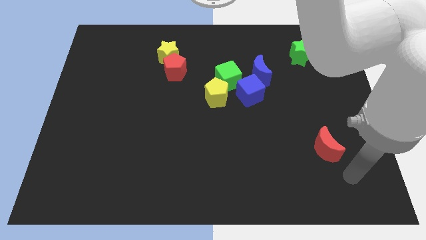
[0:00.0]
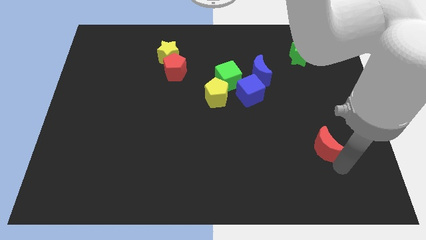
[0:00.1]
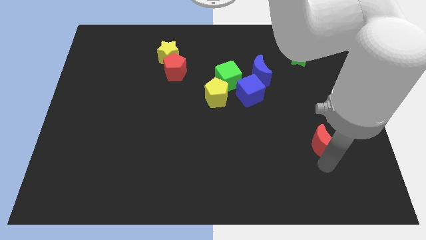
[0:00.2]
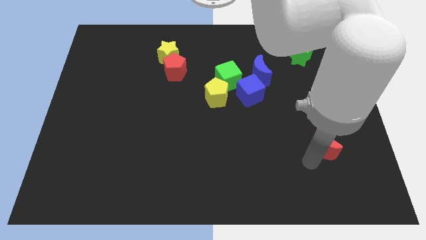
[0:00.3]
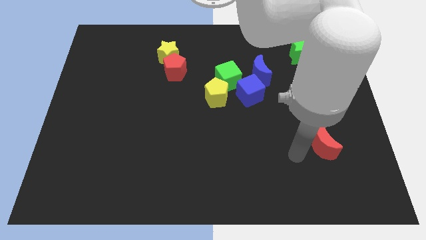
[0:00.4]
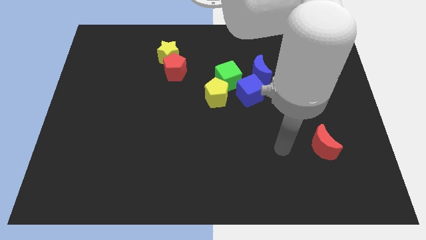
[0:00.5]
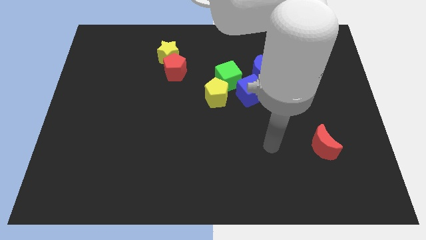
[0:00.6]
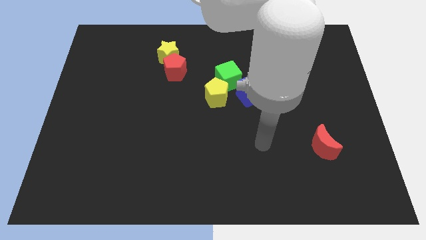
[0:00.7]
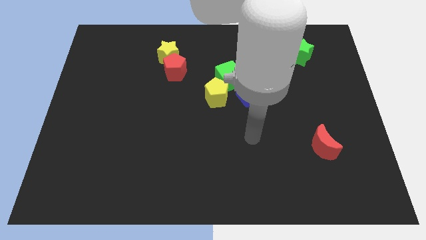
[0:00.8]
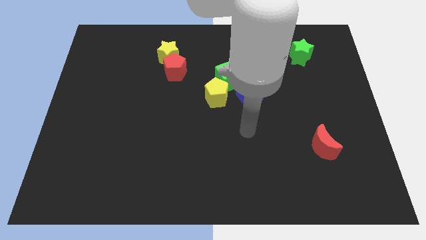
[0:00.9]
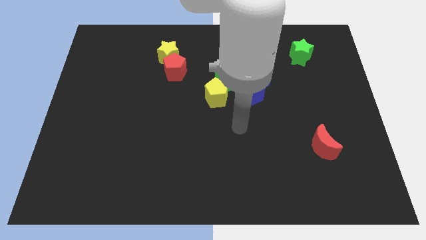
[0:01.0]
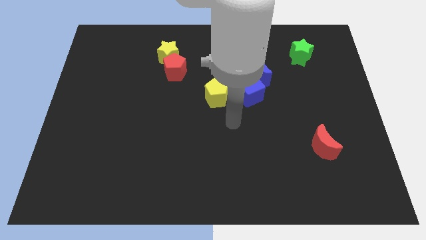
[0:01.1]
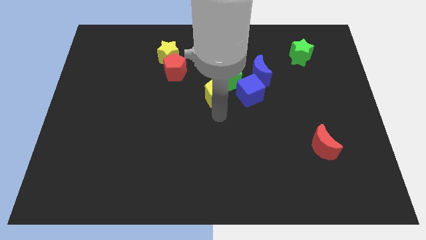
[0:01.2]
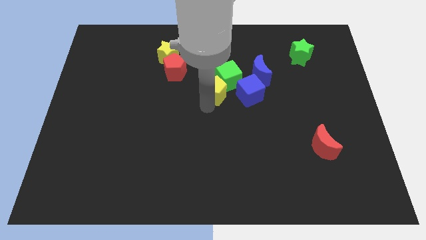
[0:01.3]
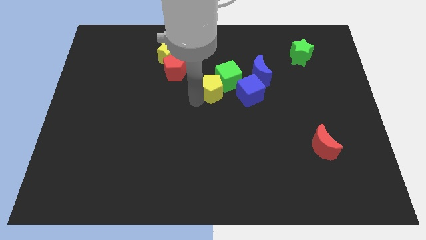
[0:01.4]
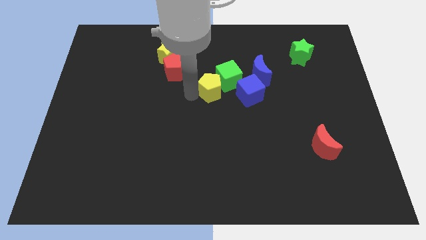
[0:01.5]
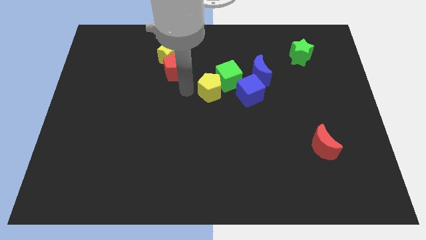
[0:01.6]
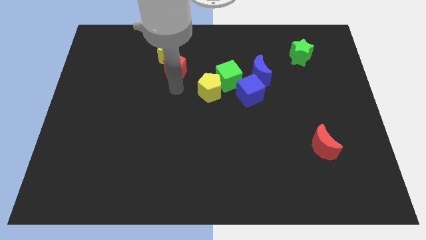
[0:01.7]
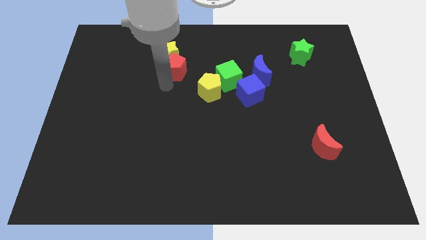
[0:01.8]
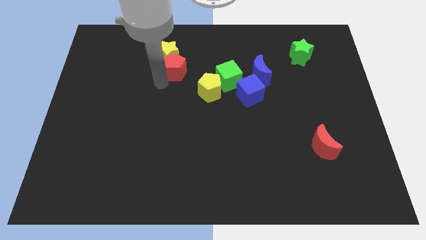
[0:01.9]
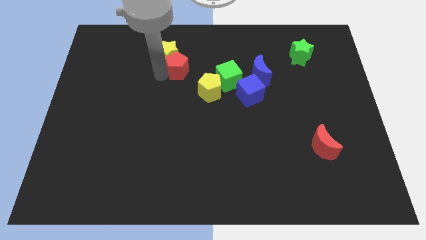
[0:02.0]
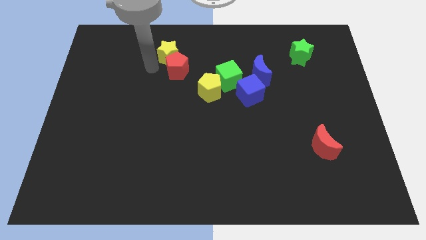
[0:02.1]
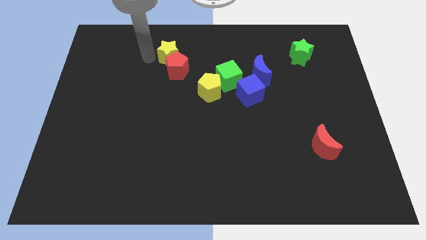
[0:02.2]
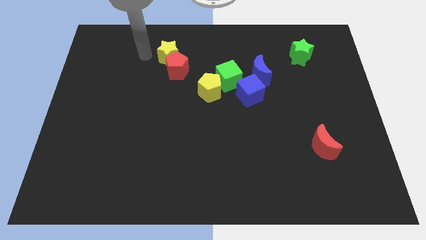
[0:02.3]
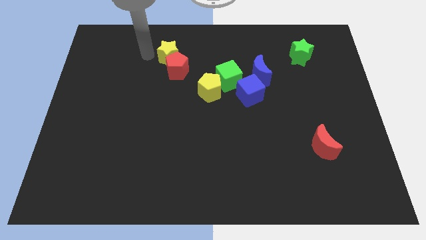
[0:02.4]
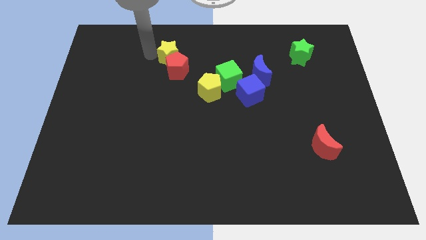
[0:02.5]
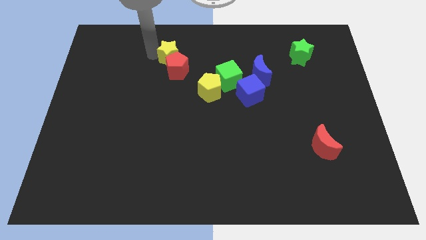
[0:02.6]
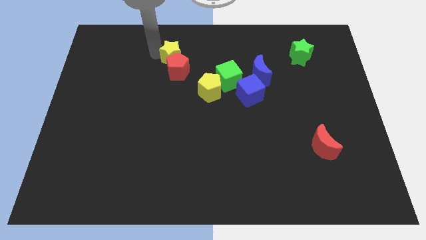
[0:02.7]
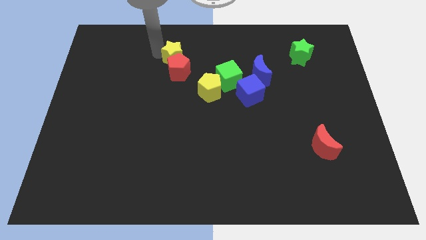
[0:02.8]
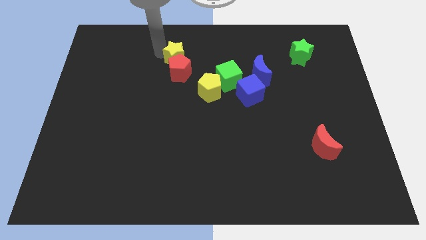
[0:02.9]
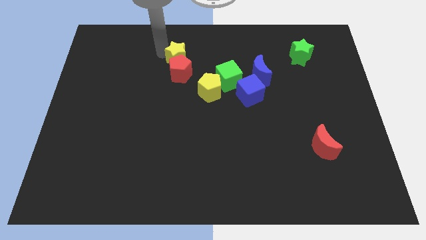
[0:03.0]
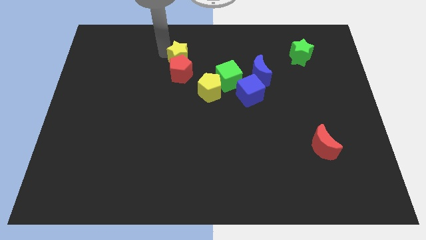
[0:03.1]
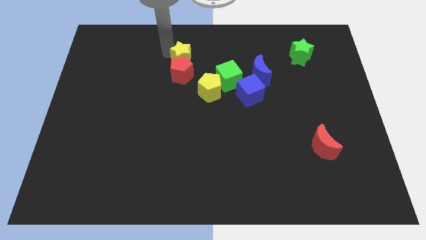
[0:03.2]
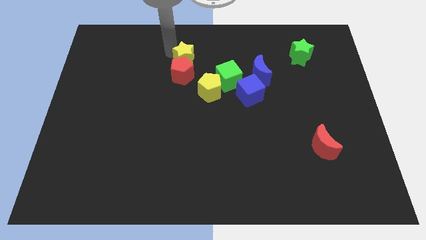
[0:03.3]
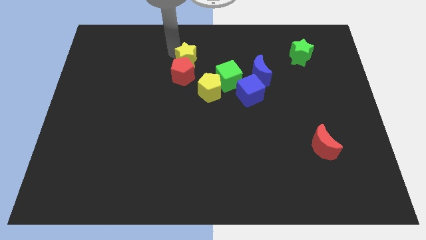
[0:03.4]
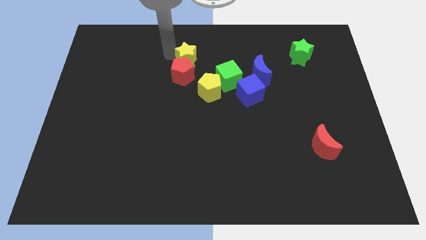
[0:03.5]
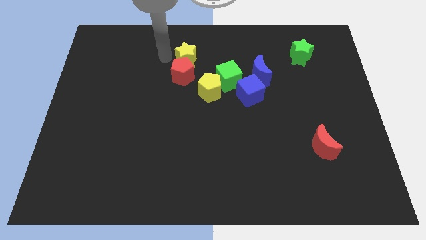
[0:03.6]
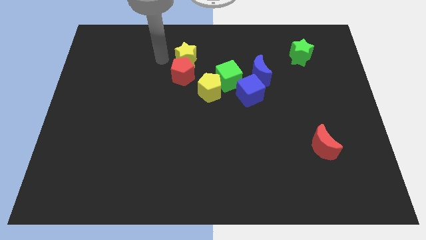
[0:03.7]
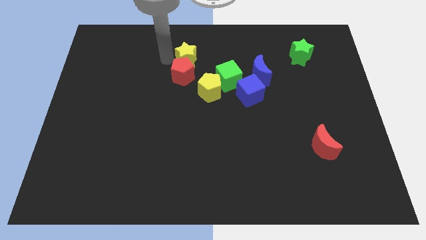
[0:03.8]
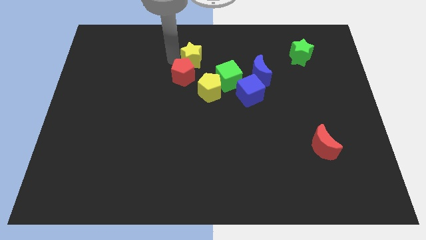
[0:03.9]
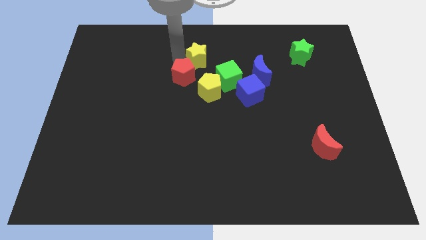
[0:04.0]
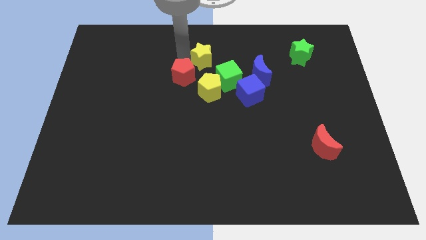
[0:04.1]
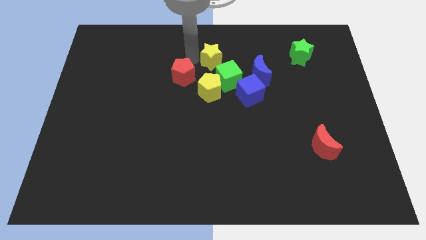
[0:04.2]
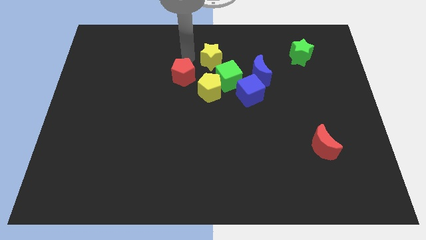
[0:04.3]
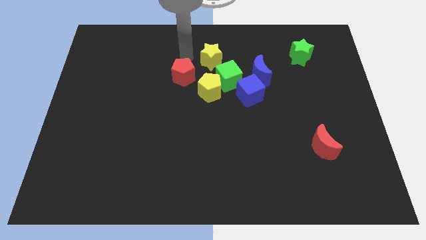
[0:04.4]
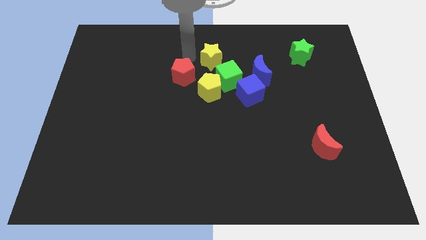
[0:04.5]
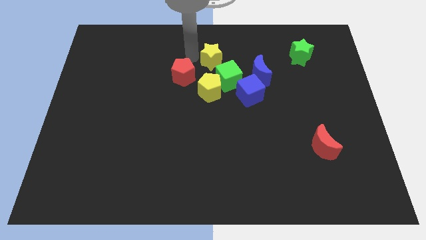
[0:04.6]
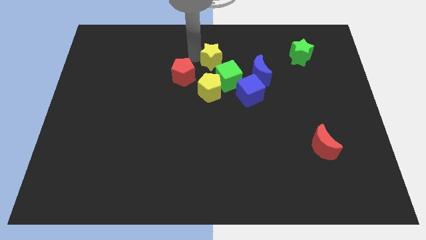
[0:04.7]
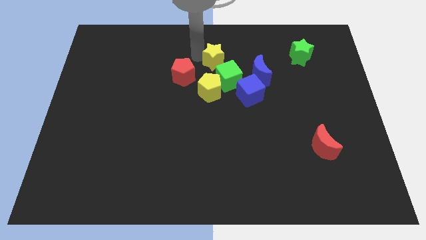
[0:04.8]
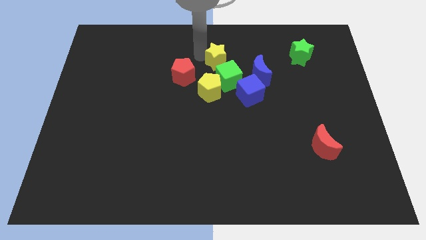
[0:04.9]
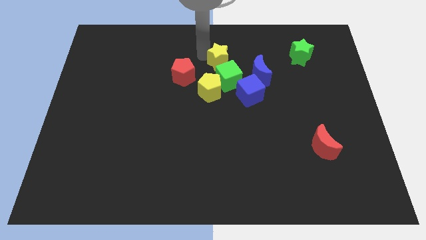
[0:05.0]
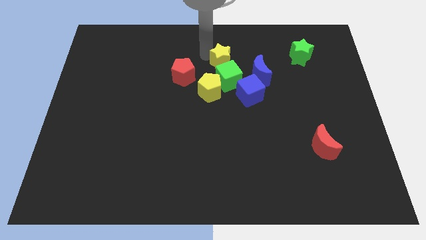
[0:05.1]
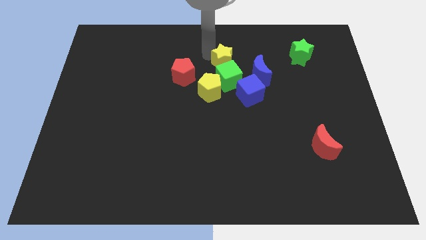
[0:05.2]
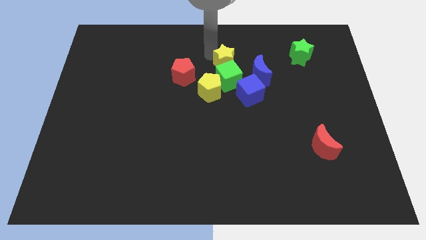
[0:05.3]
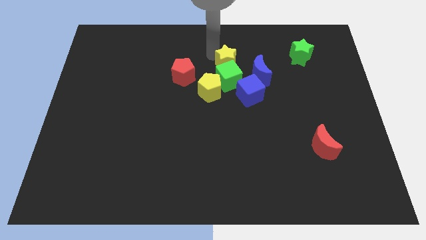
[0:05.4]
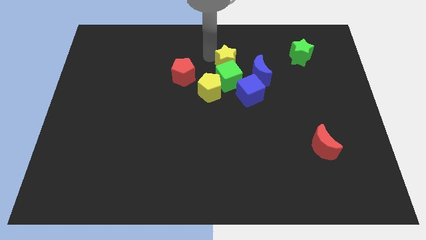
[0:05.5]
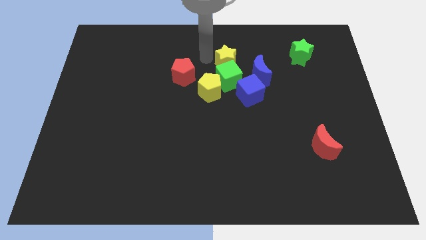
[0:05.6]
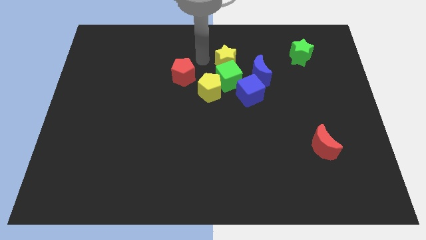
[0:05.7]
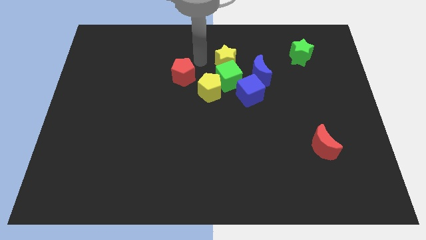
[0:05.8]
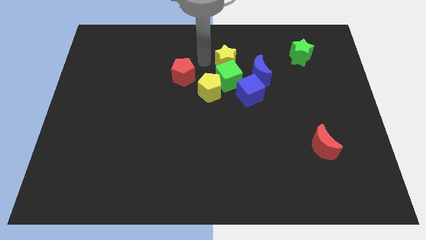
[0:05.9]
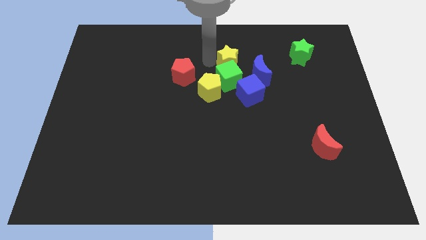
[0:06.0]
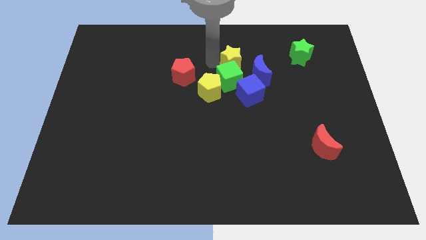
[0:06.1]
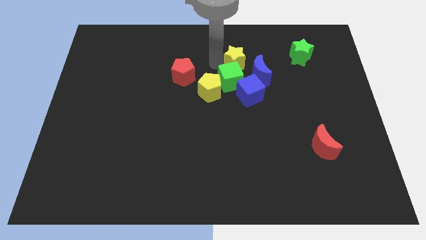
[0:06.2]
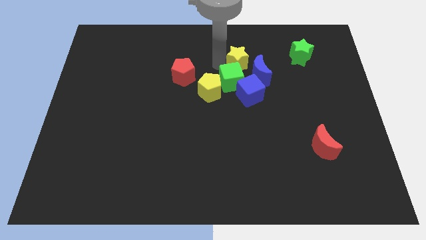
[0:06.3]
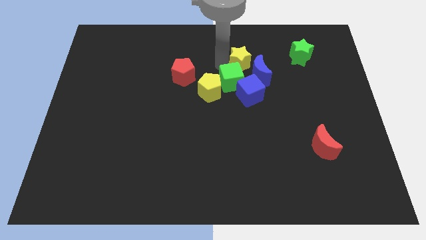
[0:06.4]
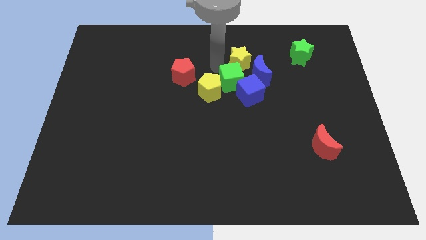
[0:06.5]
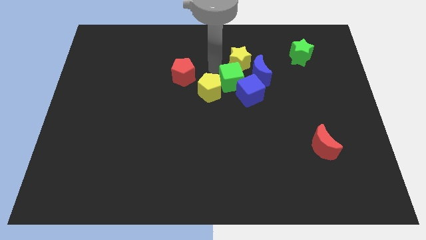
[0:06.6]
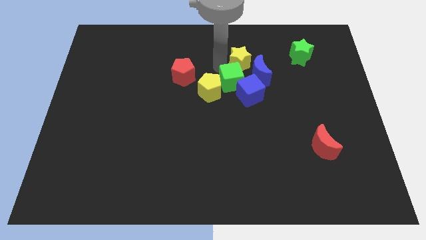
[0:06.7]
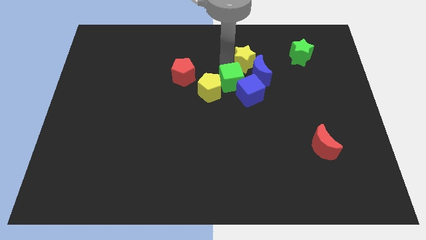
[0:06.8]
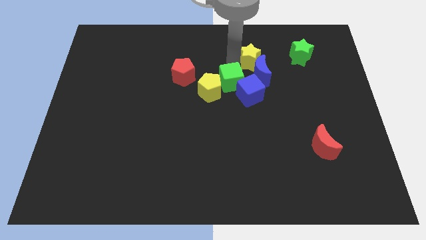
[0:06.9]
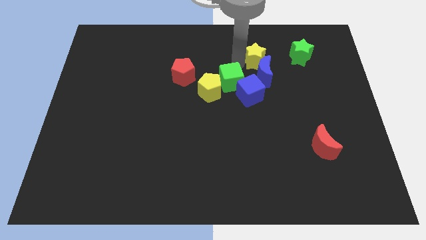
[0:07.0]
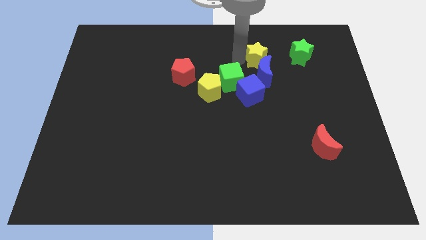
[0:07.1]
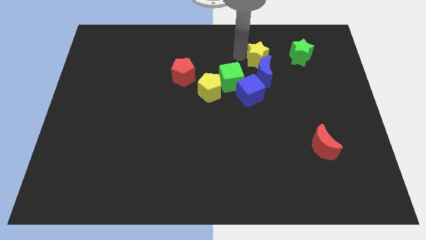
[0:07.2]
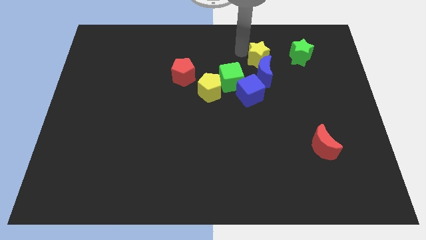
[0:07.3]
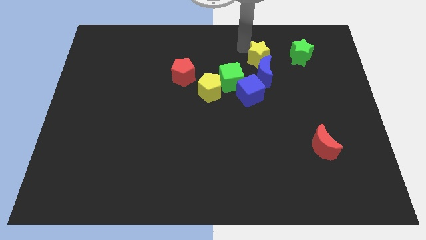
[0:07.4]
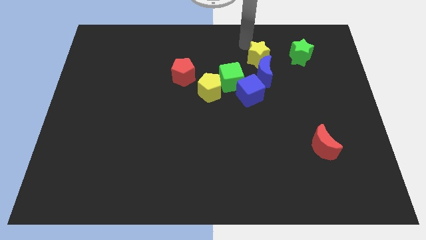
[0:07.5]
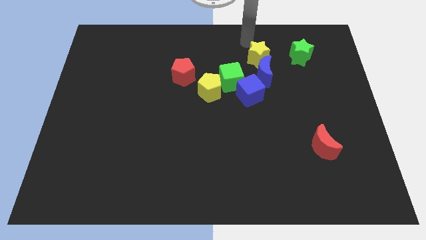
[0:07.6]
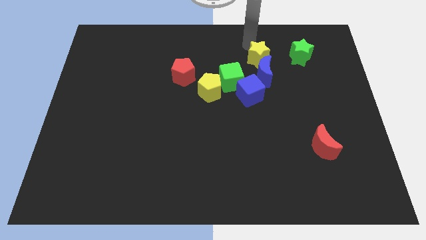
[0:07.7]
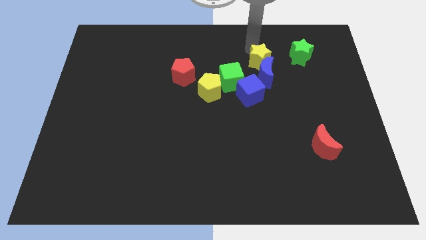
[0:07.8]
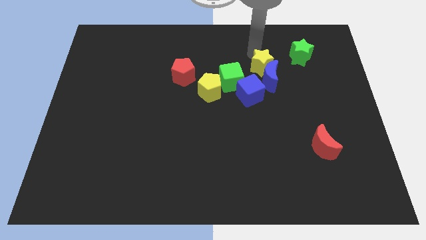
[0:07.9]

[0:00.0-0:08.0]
push the yellow star diagonally up and to the right of the blue cube
